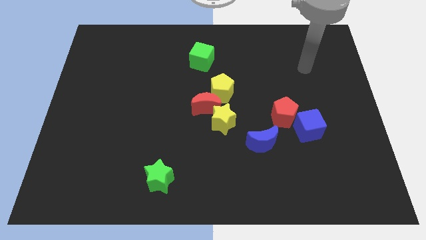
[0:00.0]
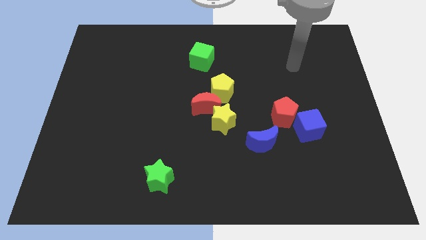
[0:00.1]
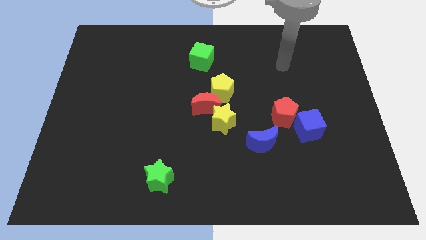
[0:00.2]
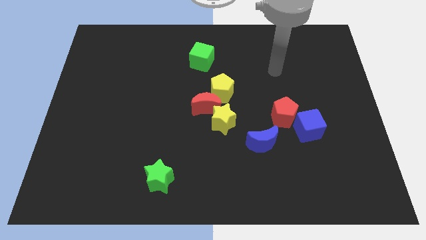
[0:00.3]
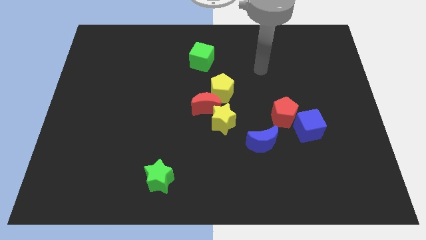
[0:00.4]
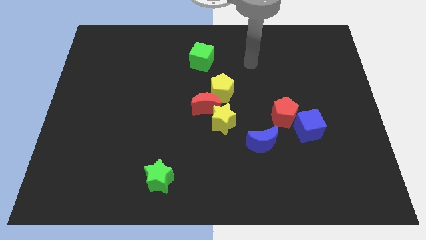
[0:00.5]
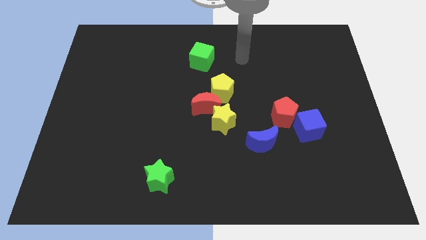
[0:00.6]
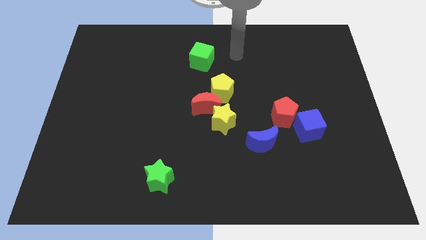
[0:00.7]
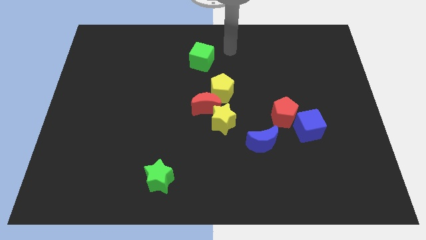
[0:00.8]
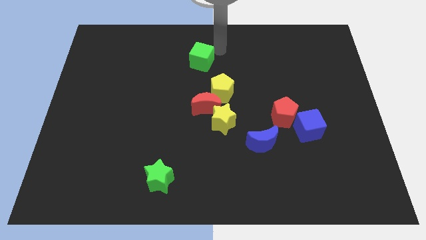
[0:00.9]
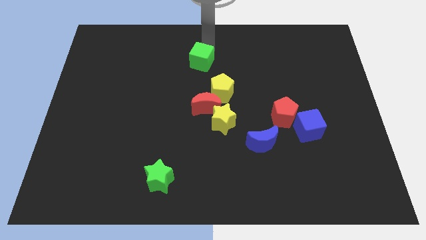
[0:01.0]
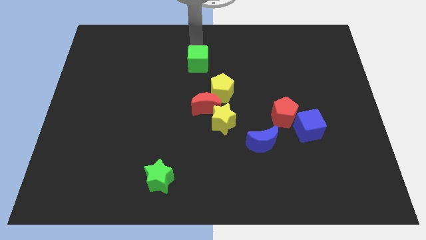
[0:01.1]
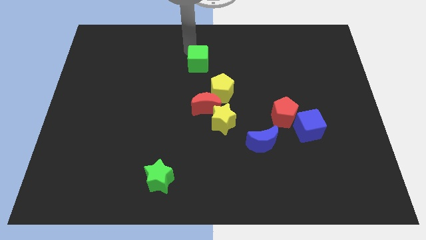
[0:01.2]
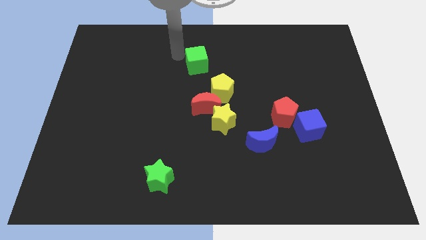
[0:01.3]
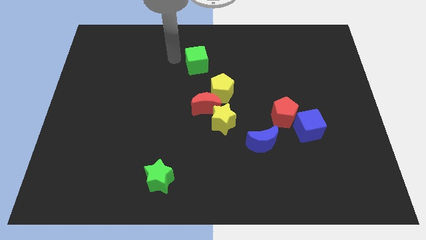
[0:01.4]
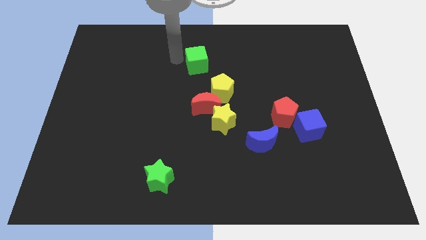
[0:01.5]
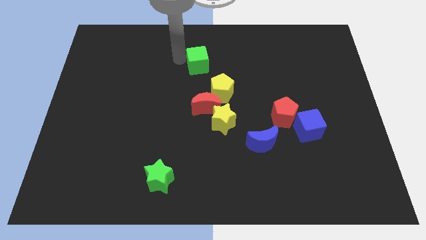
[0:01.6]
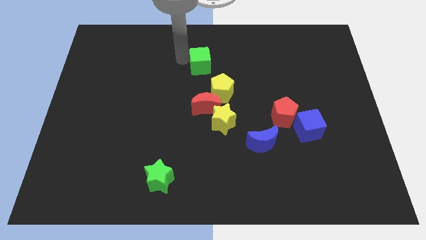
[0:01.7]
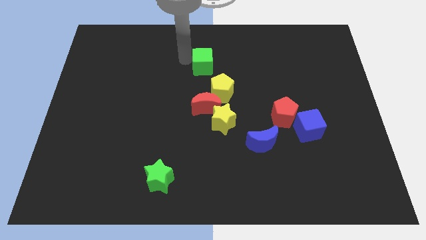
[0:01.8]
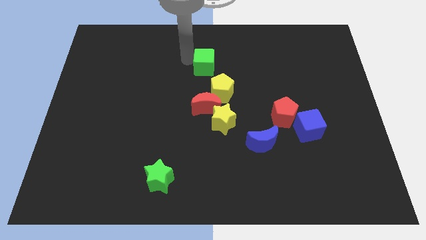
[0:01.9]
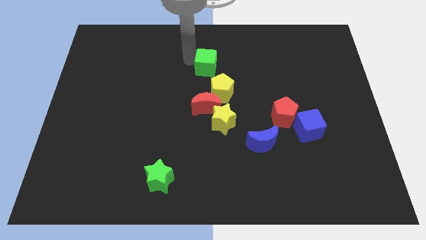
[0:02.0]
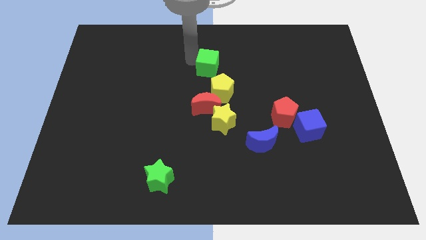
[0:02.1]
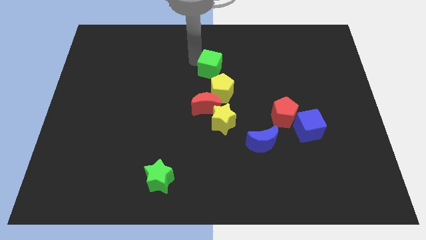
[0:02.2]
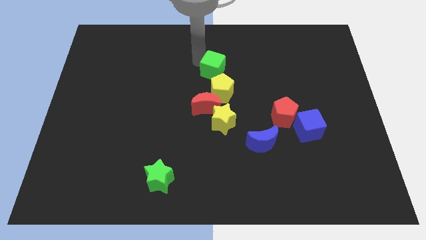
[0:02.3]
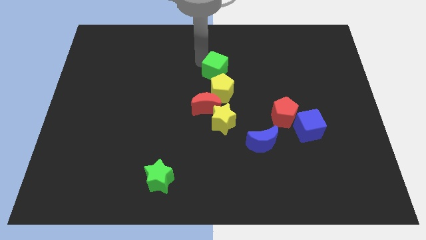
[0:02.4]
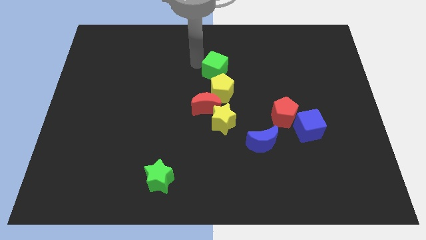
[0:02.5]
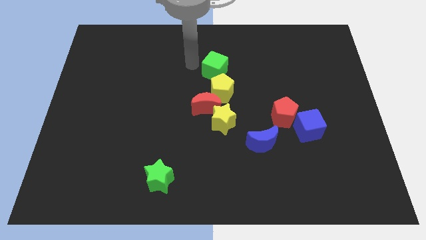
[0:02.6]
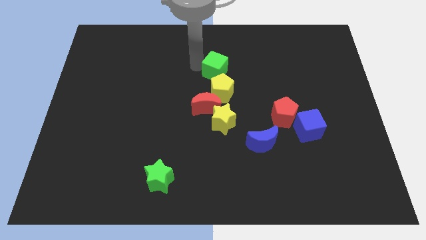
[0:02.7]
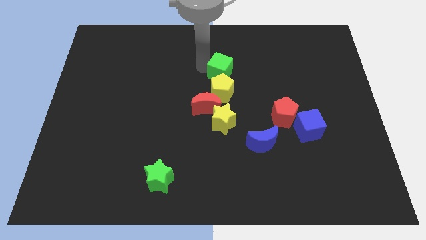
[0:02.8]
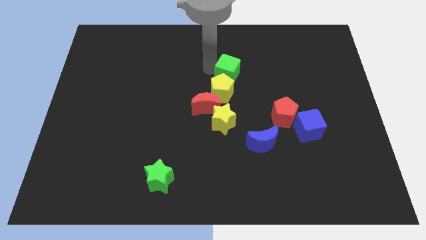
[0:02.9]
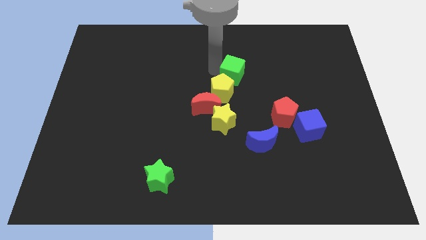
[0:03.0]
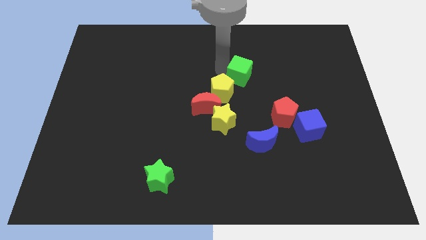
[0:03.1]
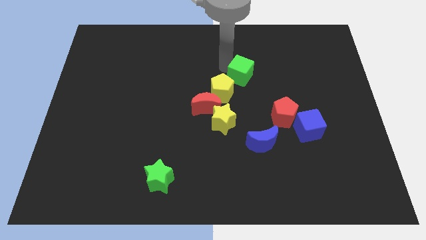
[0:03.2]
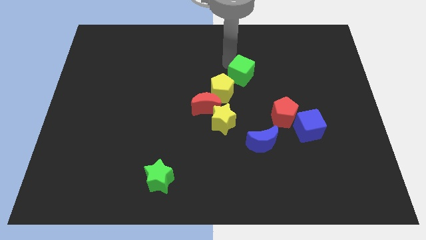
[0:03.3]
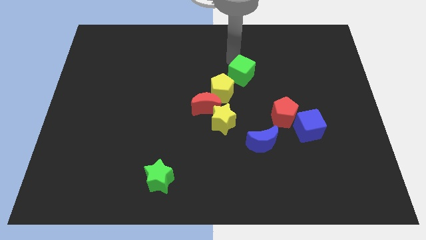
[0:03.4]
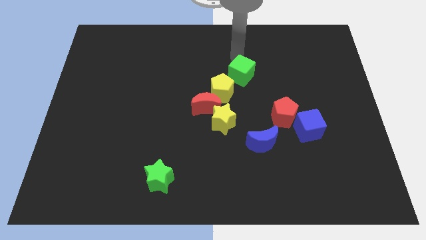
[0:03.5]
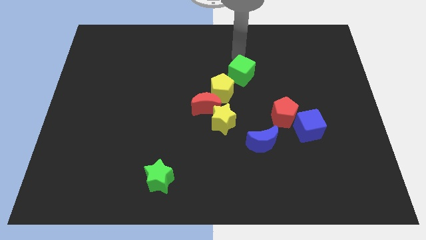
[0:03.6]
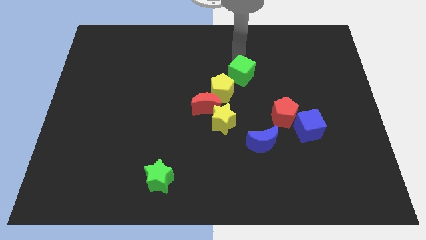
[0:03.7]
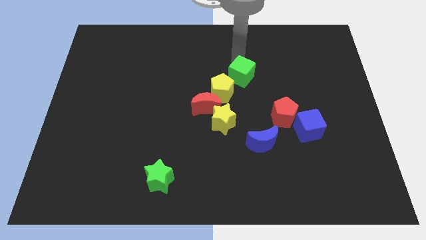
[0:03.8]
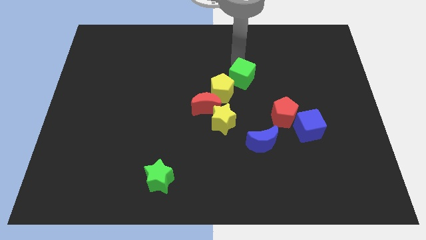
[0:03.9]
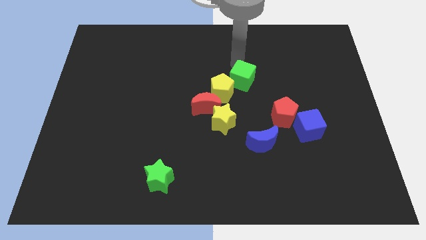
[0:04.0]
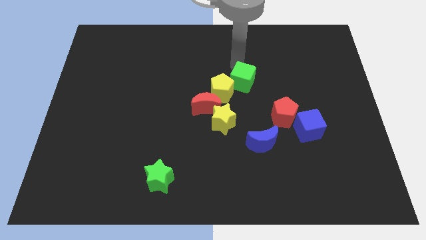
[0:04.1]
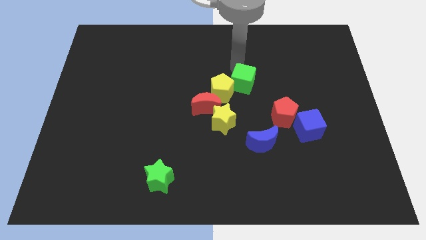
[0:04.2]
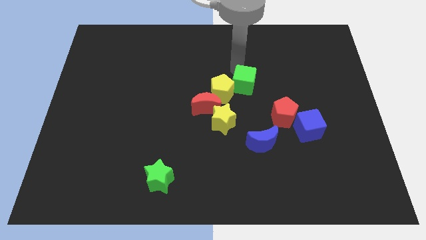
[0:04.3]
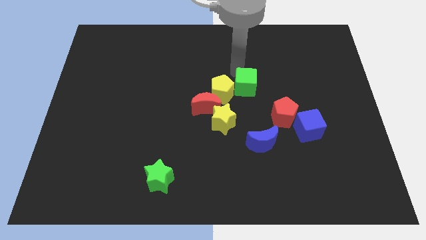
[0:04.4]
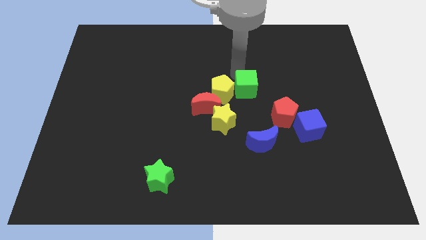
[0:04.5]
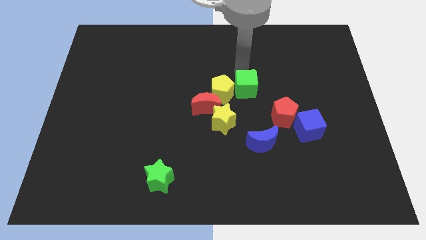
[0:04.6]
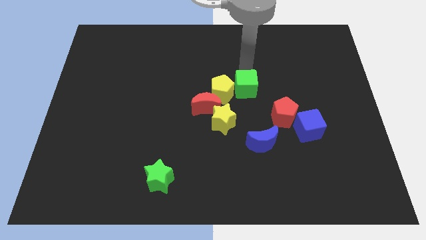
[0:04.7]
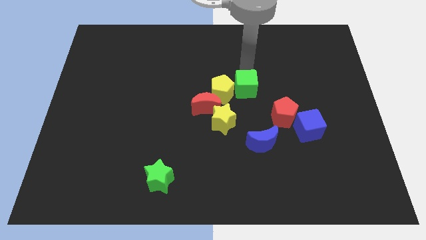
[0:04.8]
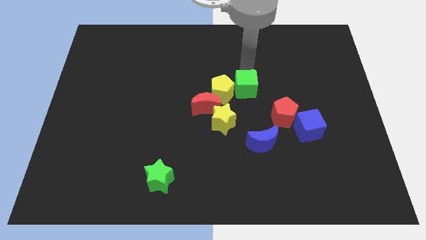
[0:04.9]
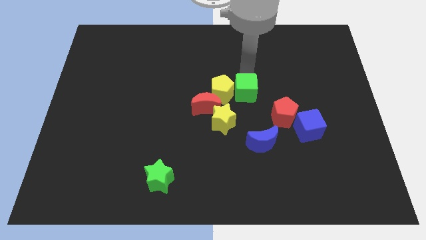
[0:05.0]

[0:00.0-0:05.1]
push the green cube diagonally down and to the right of the yellow pentagon

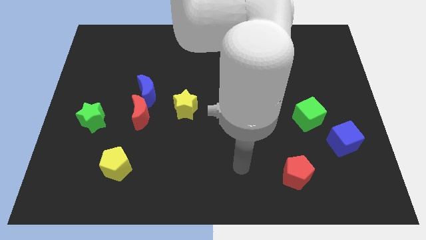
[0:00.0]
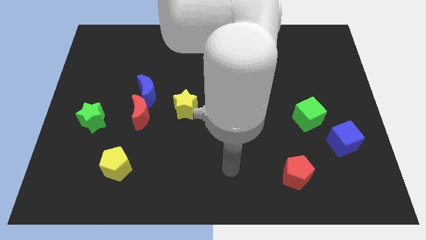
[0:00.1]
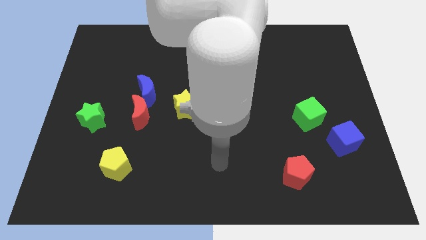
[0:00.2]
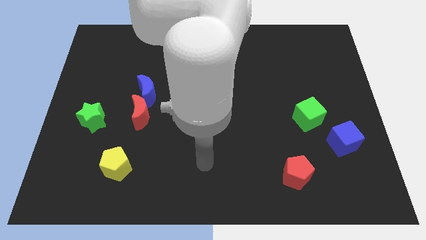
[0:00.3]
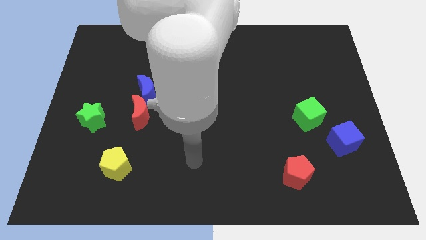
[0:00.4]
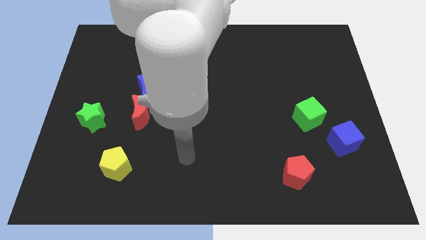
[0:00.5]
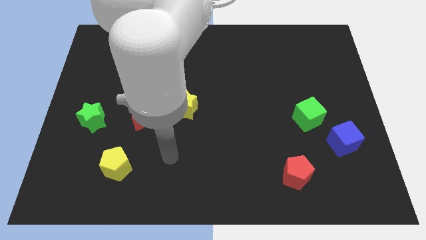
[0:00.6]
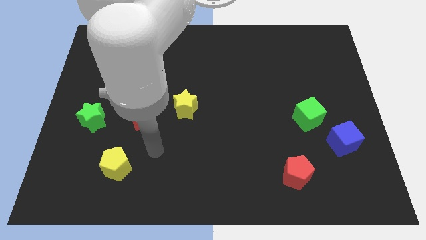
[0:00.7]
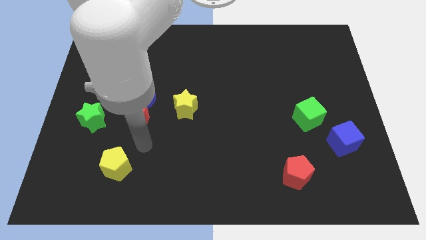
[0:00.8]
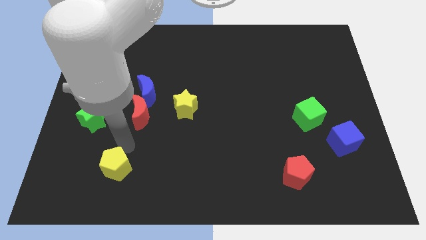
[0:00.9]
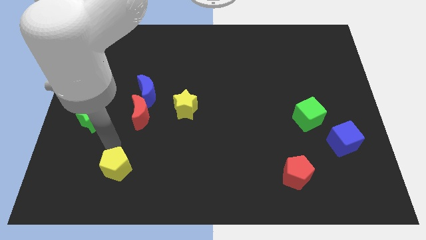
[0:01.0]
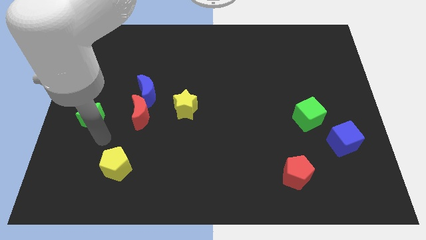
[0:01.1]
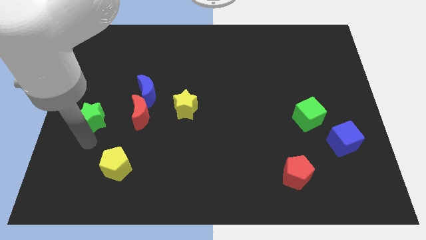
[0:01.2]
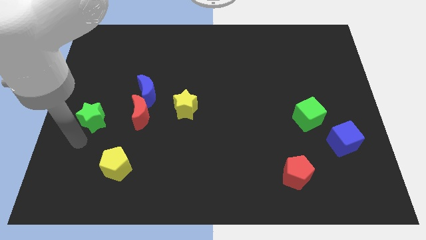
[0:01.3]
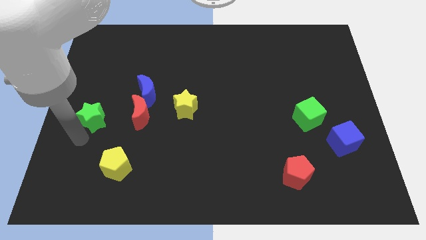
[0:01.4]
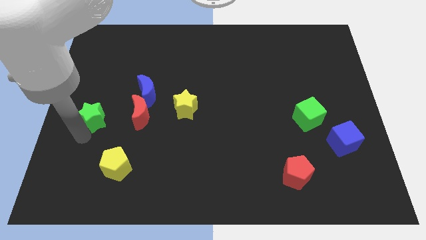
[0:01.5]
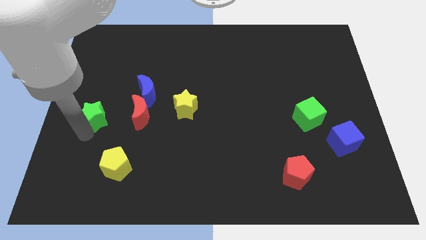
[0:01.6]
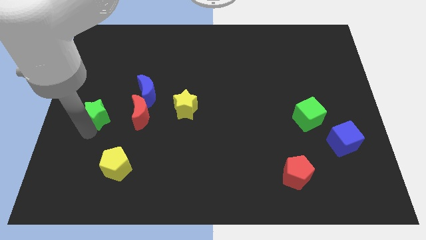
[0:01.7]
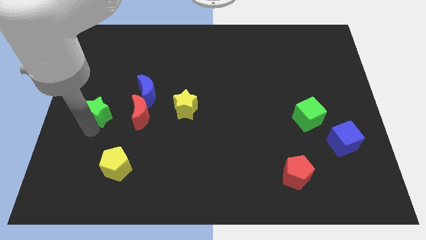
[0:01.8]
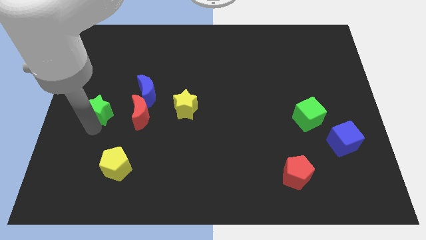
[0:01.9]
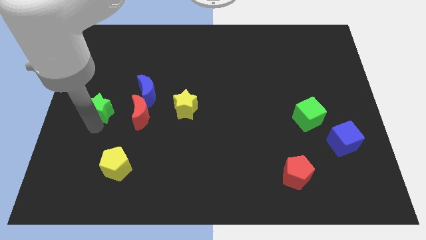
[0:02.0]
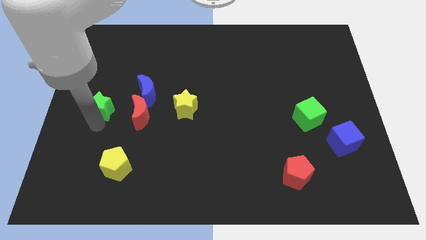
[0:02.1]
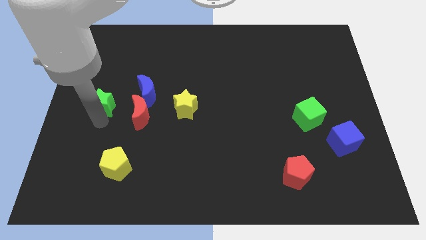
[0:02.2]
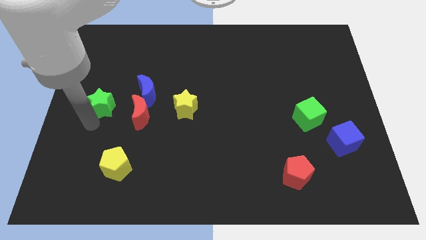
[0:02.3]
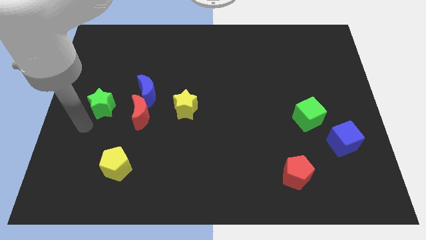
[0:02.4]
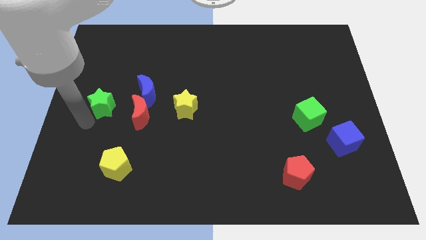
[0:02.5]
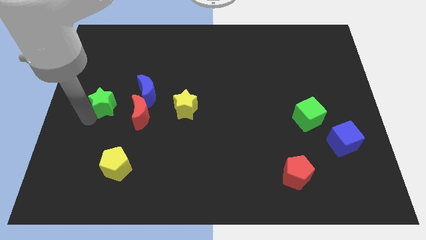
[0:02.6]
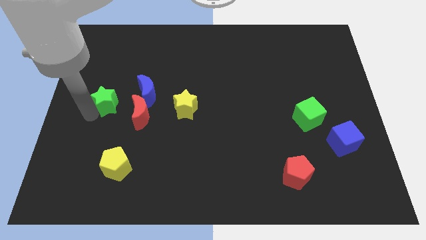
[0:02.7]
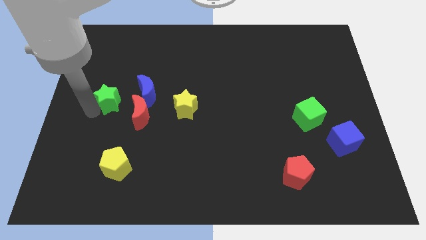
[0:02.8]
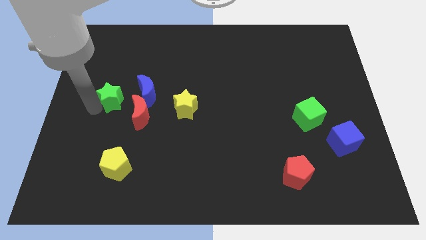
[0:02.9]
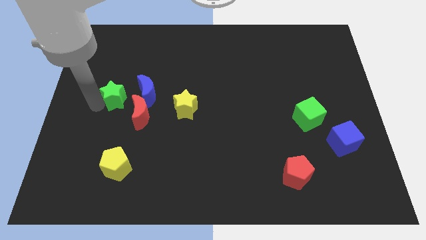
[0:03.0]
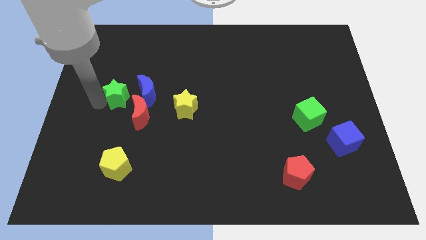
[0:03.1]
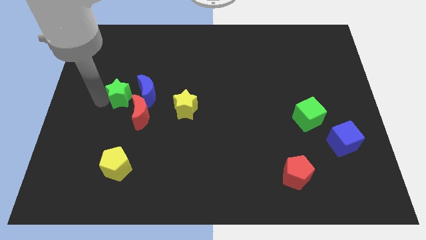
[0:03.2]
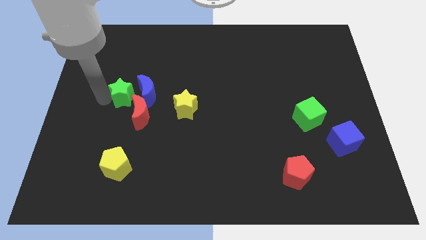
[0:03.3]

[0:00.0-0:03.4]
push the green star to the top left of the blue moon
